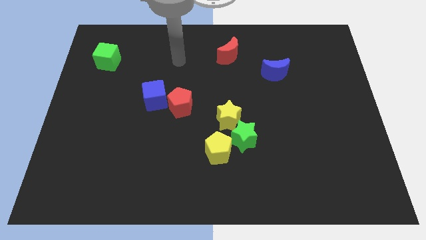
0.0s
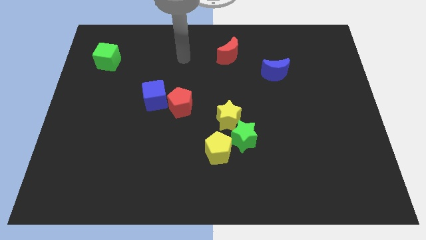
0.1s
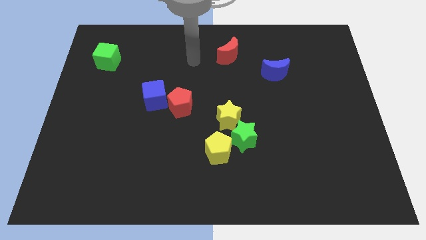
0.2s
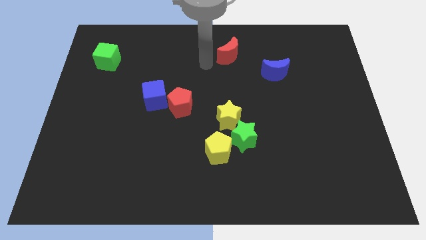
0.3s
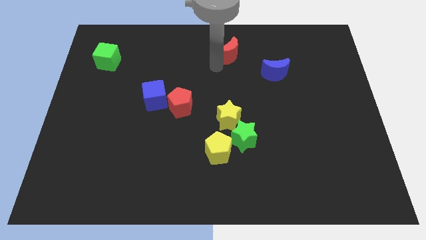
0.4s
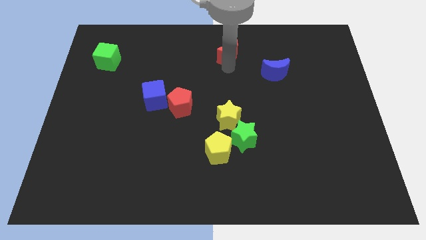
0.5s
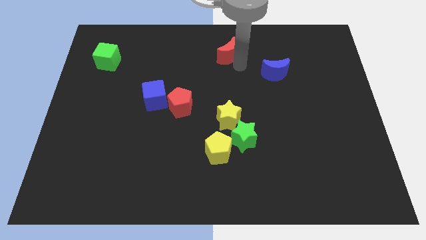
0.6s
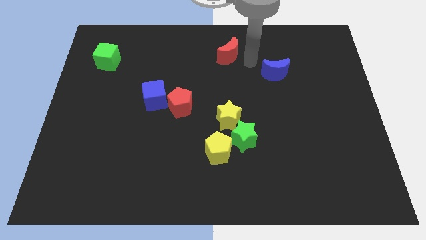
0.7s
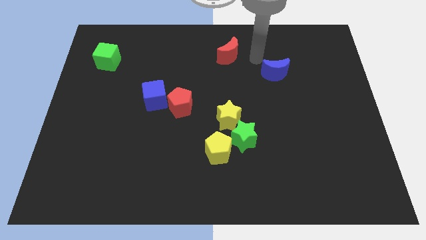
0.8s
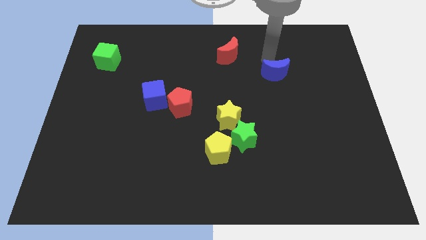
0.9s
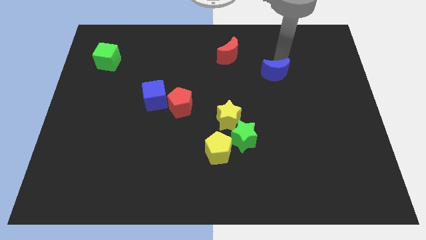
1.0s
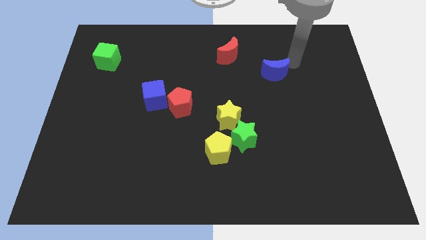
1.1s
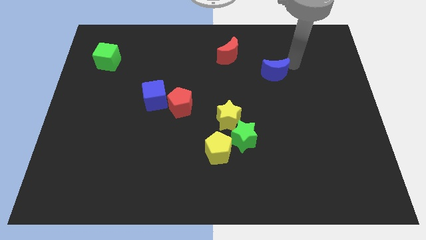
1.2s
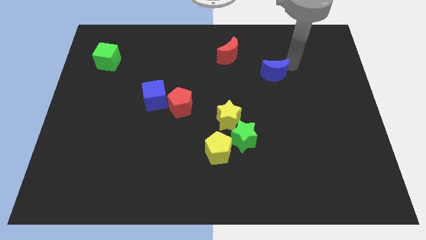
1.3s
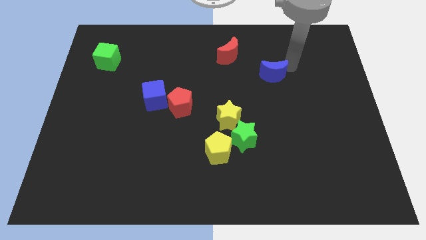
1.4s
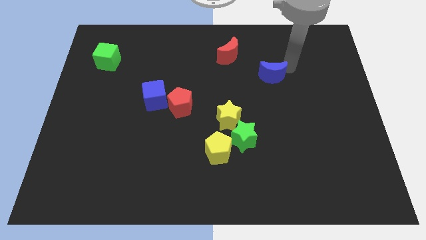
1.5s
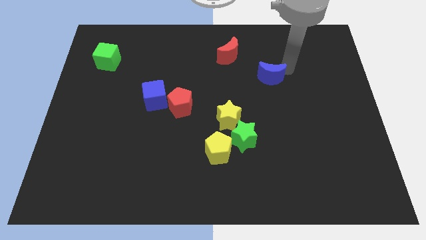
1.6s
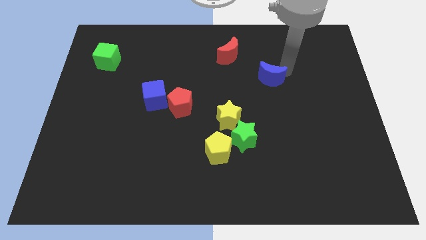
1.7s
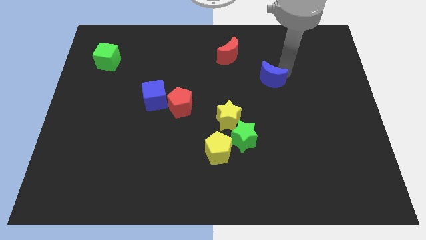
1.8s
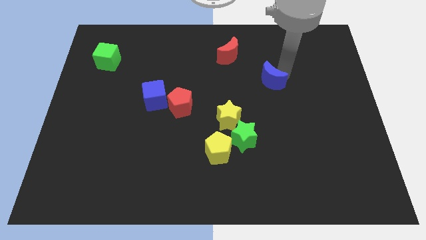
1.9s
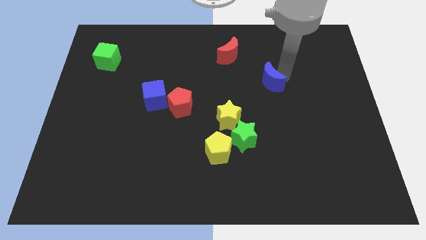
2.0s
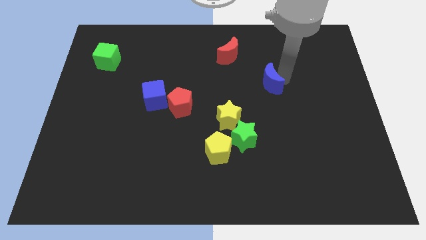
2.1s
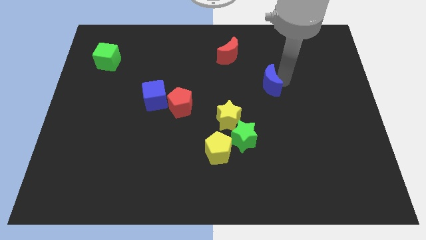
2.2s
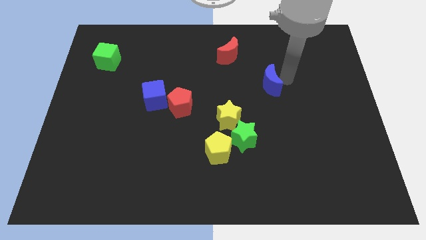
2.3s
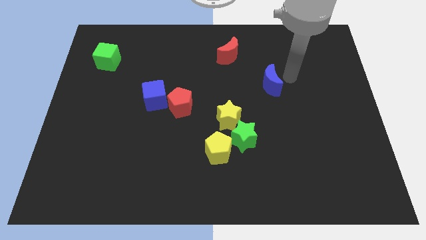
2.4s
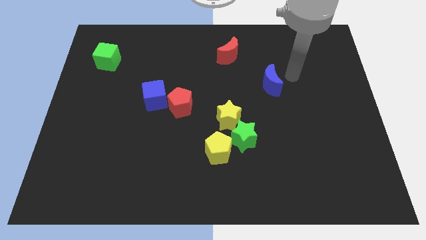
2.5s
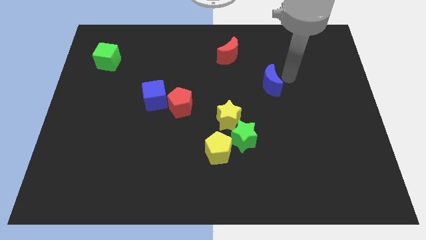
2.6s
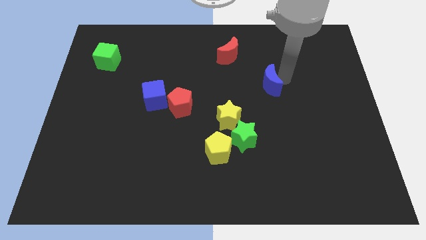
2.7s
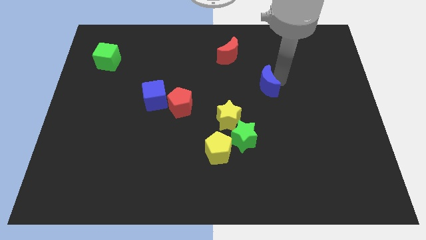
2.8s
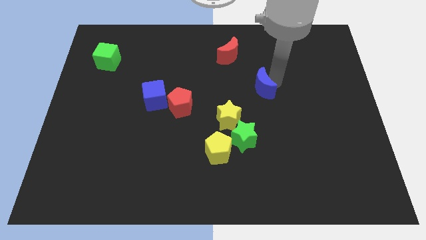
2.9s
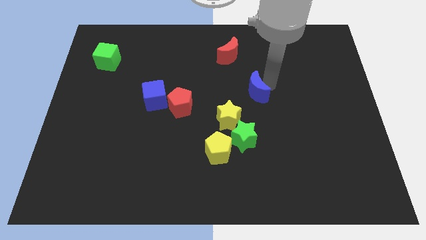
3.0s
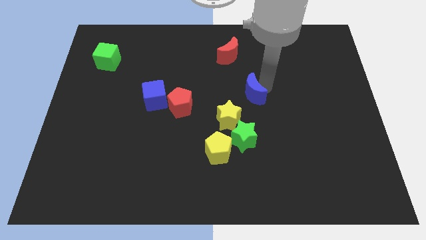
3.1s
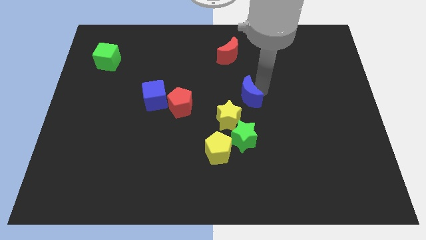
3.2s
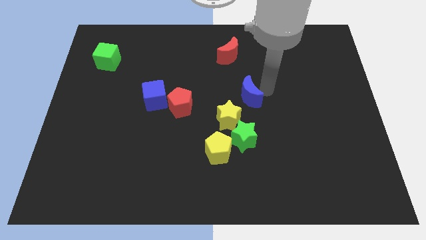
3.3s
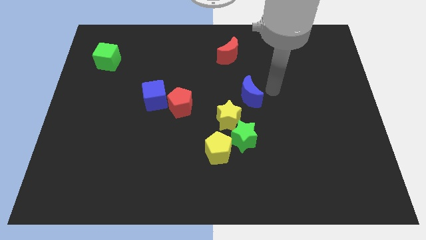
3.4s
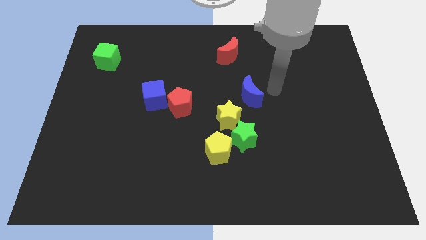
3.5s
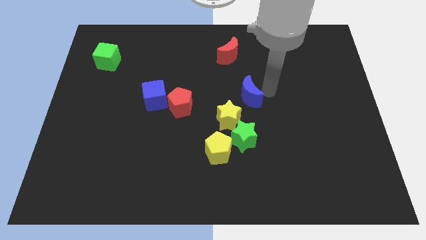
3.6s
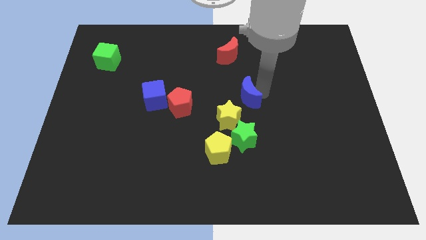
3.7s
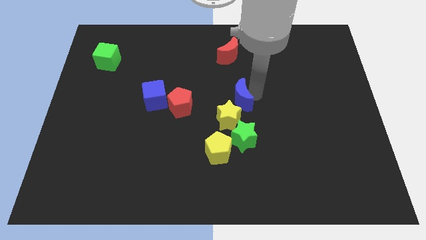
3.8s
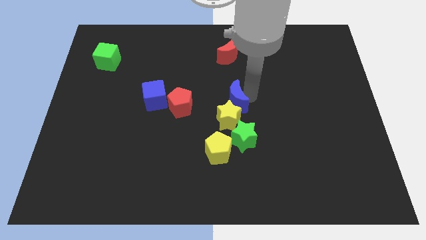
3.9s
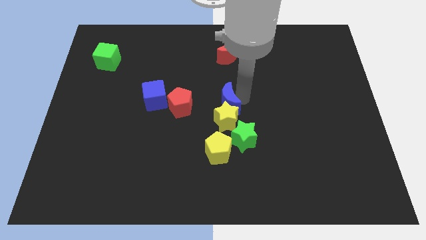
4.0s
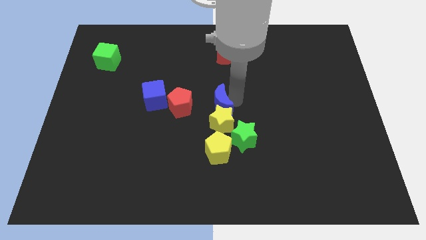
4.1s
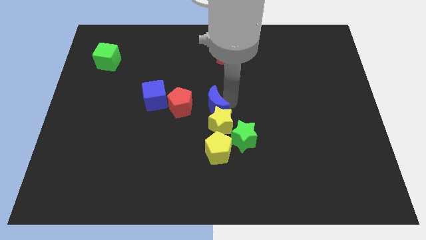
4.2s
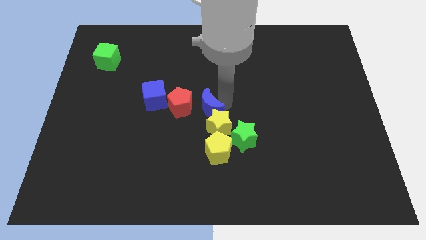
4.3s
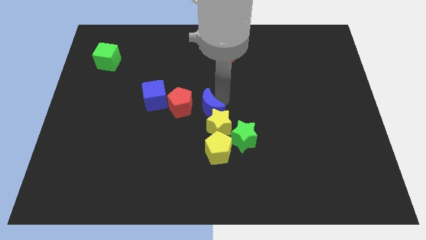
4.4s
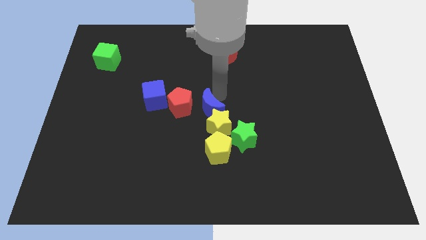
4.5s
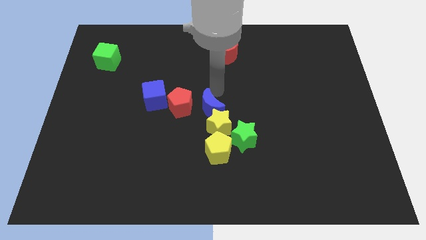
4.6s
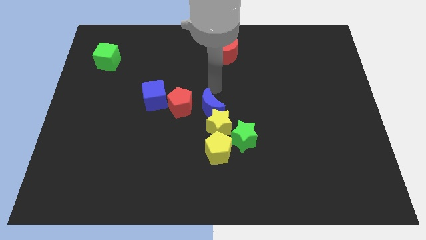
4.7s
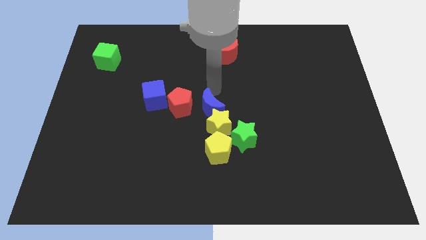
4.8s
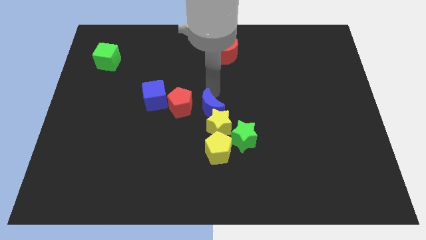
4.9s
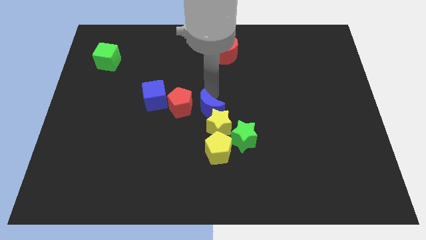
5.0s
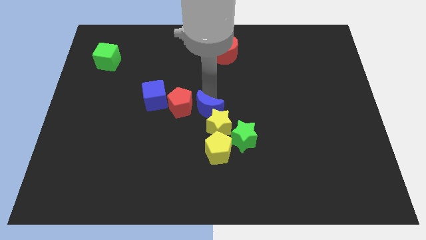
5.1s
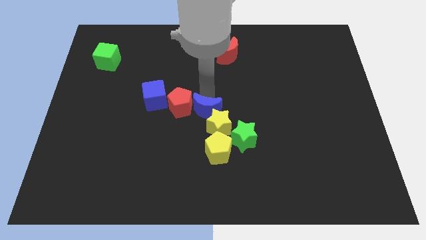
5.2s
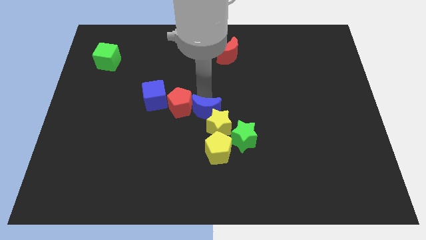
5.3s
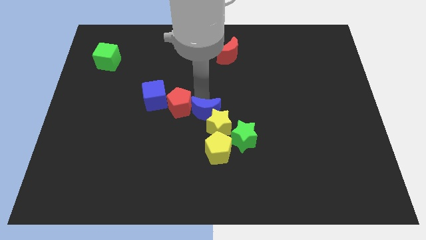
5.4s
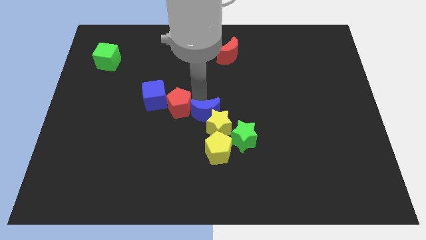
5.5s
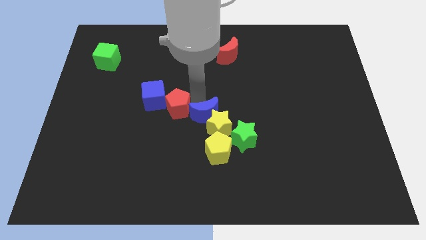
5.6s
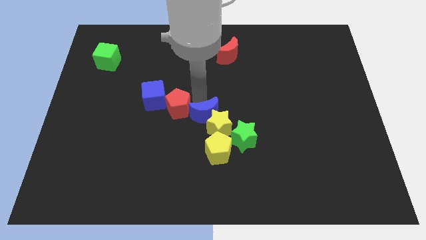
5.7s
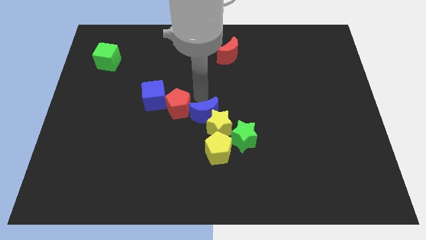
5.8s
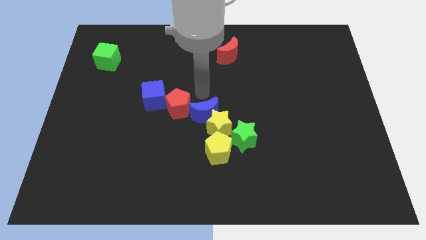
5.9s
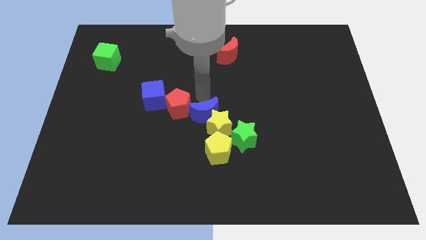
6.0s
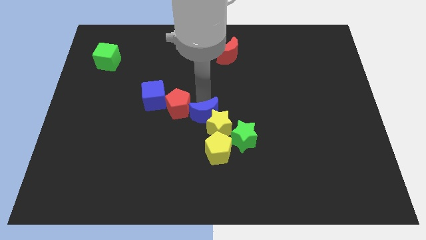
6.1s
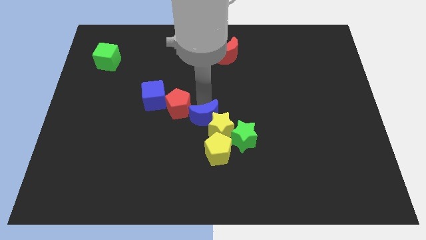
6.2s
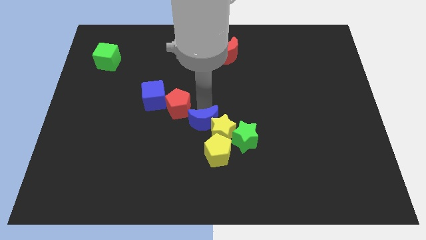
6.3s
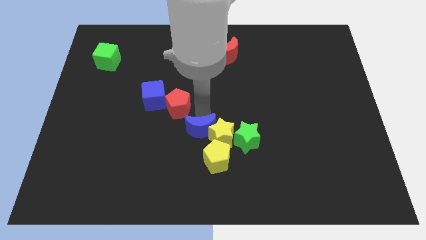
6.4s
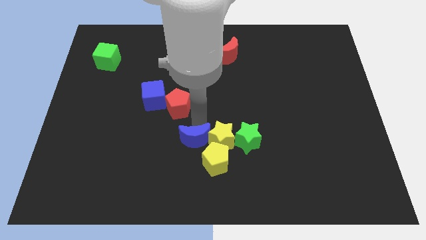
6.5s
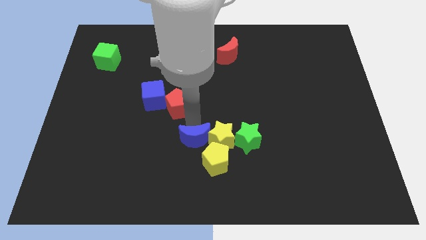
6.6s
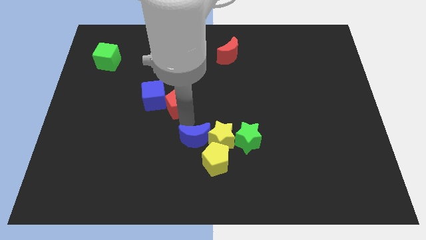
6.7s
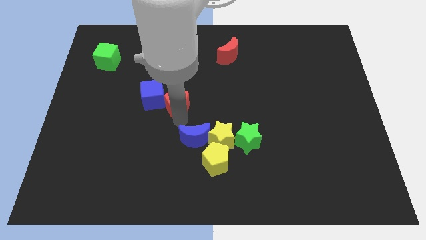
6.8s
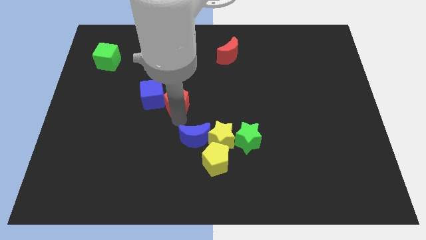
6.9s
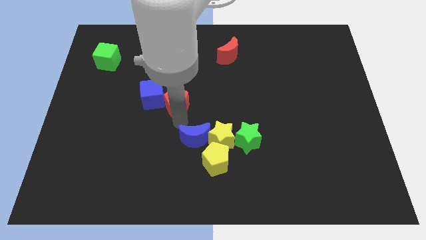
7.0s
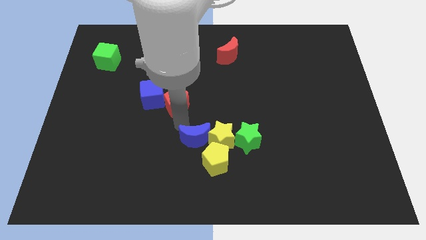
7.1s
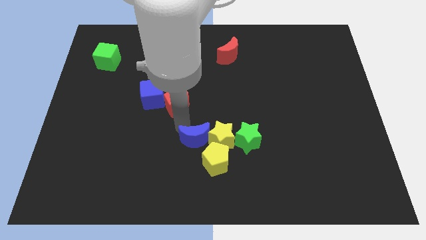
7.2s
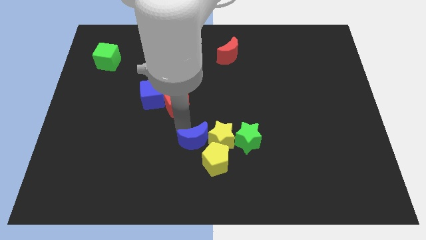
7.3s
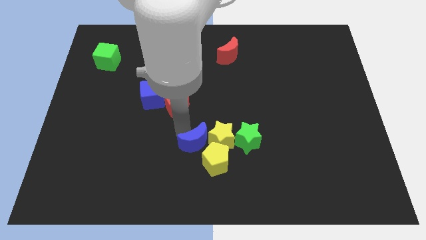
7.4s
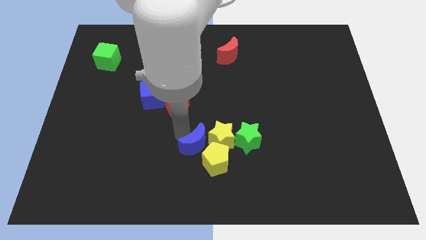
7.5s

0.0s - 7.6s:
move the blue moon next to the yellow pentagon
